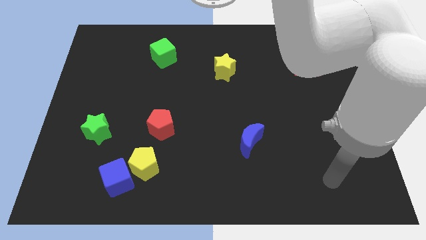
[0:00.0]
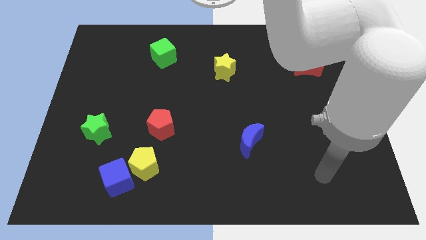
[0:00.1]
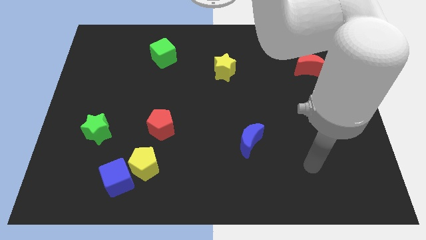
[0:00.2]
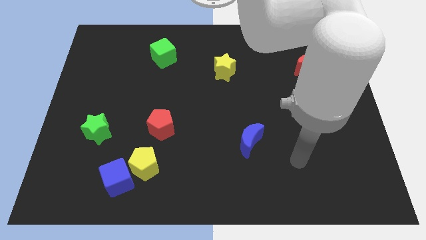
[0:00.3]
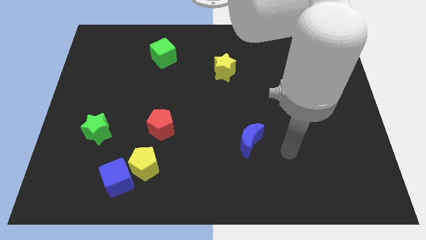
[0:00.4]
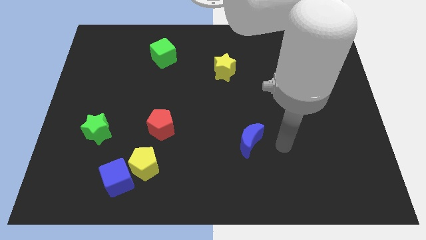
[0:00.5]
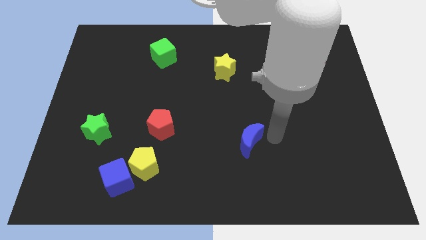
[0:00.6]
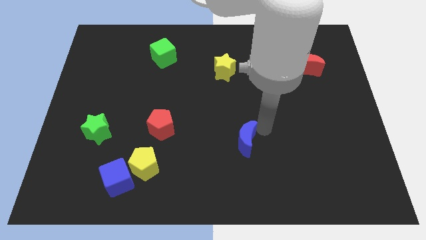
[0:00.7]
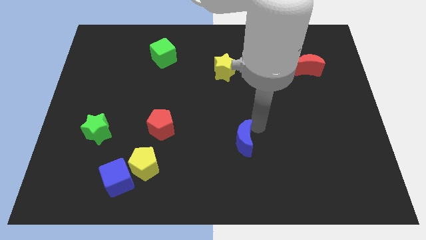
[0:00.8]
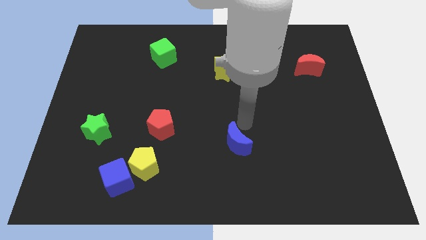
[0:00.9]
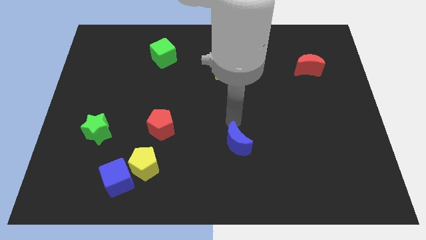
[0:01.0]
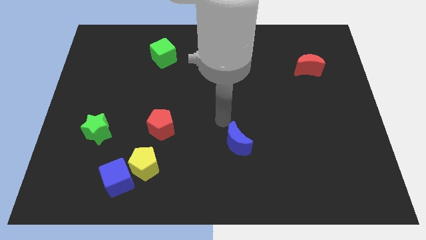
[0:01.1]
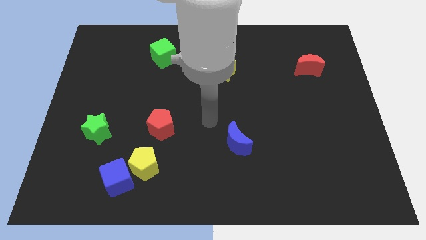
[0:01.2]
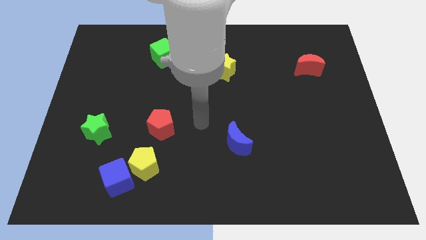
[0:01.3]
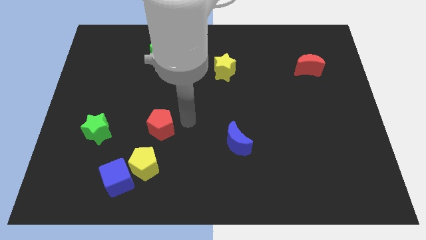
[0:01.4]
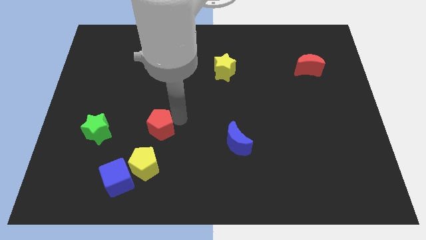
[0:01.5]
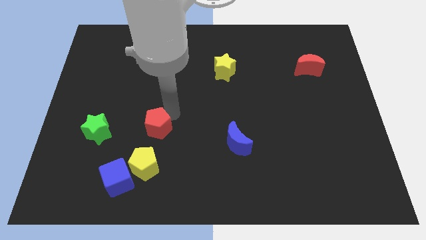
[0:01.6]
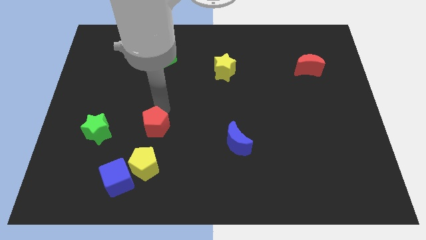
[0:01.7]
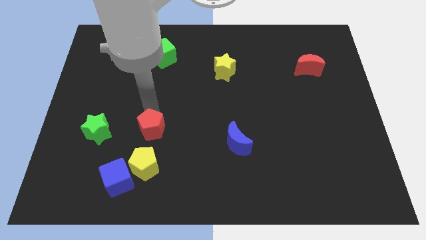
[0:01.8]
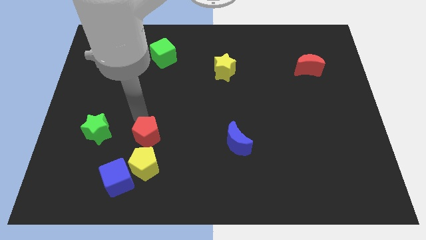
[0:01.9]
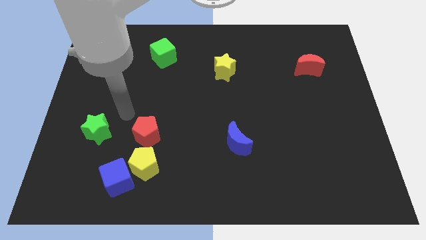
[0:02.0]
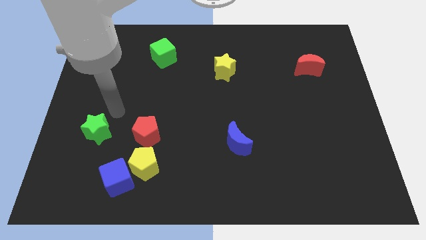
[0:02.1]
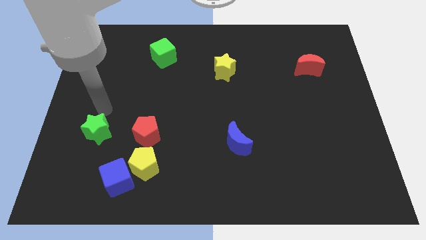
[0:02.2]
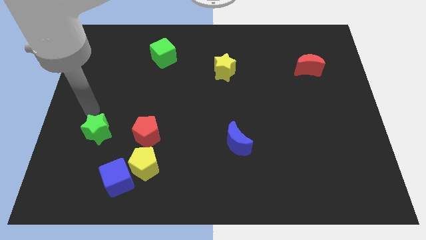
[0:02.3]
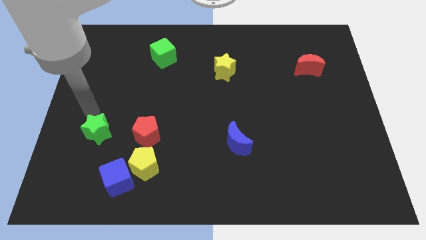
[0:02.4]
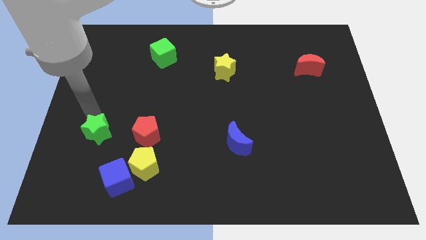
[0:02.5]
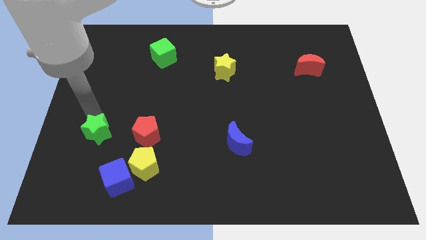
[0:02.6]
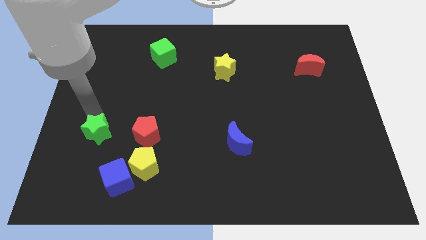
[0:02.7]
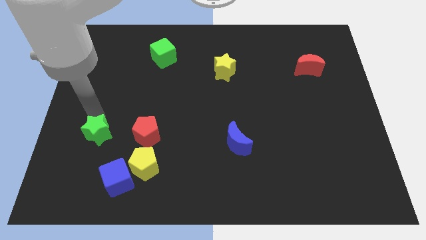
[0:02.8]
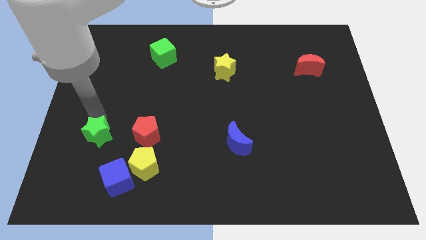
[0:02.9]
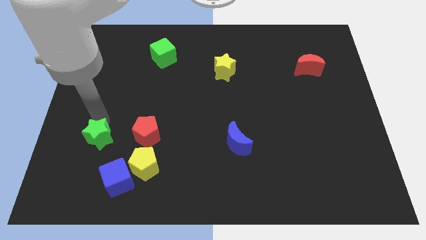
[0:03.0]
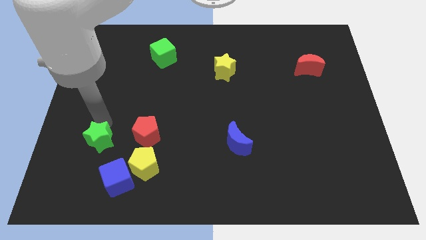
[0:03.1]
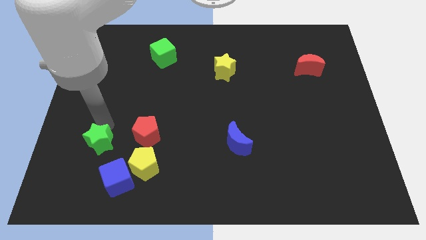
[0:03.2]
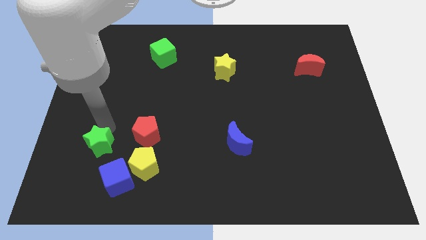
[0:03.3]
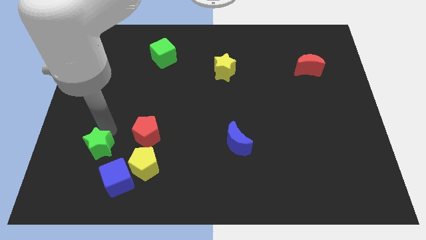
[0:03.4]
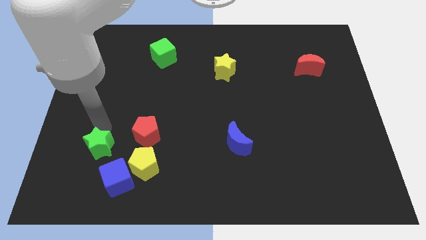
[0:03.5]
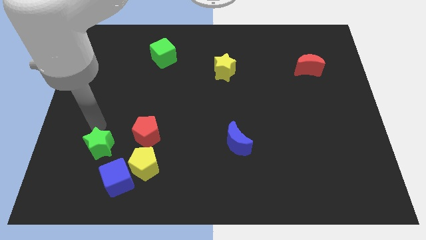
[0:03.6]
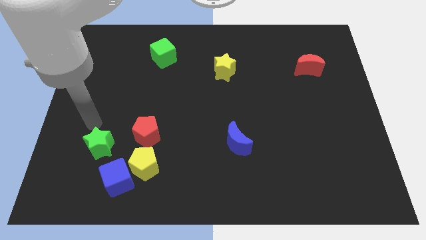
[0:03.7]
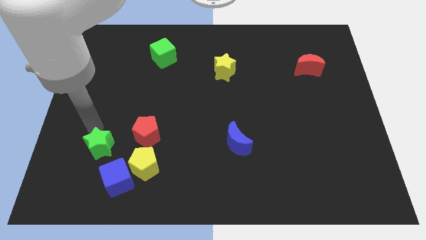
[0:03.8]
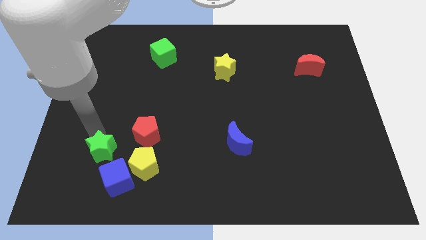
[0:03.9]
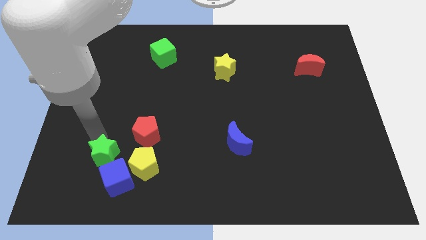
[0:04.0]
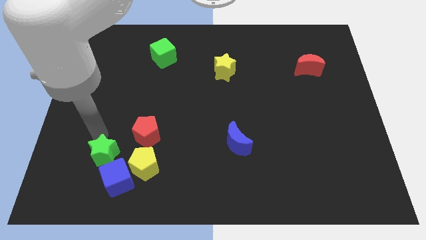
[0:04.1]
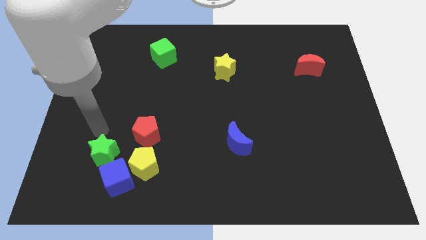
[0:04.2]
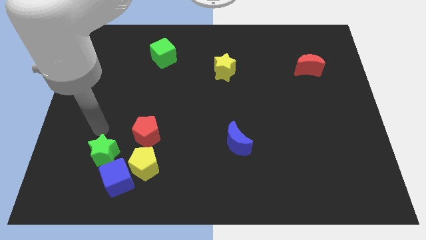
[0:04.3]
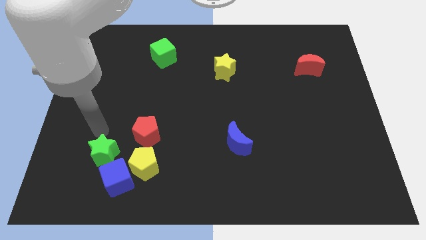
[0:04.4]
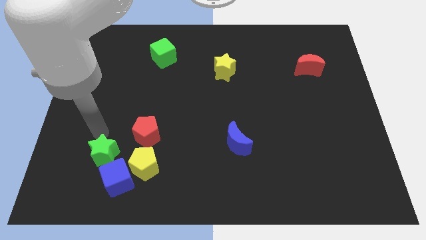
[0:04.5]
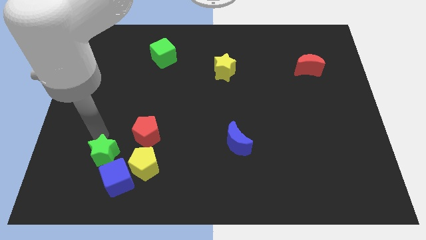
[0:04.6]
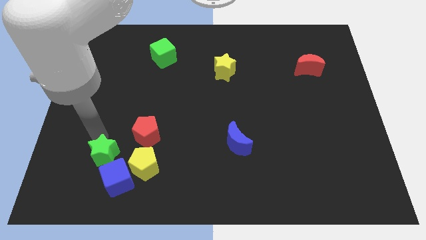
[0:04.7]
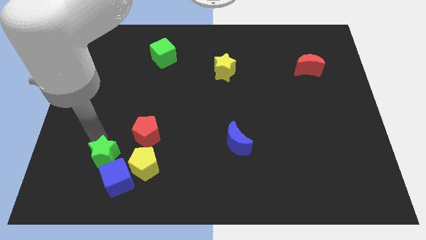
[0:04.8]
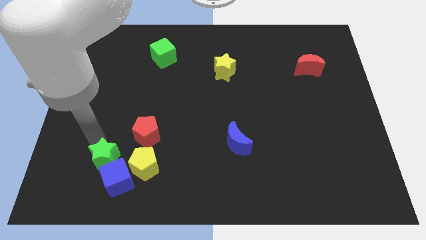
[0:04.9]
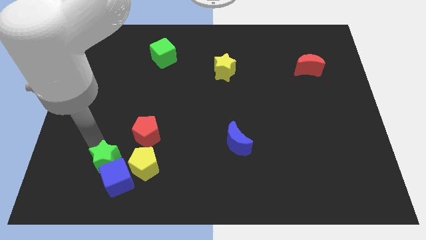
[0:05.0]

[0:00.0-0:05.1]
slide the green star close to the blue cube

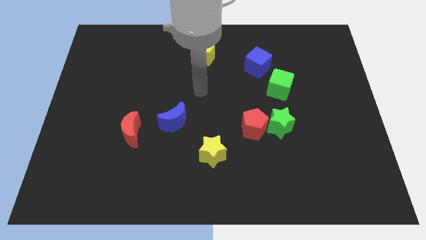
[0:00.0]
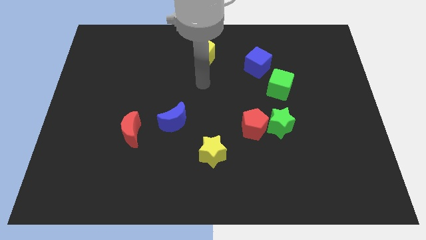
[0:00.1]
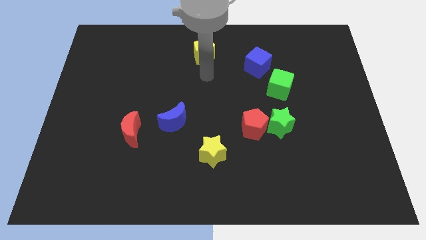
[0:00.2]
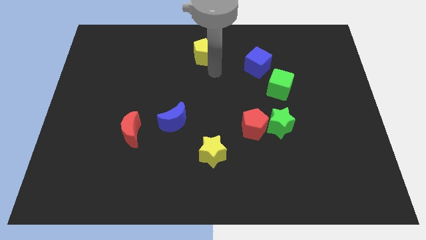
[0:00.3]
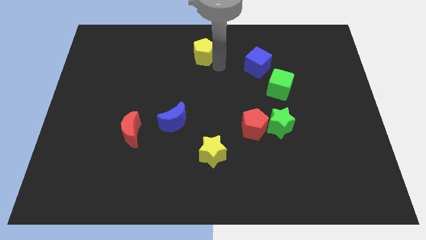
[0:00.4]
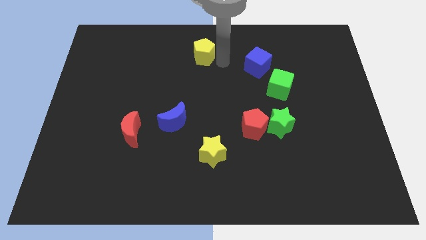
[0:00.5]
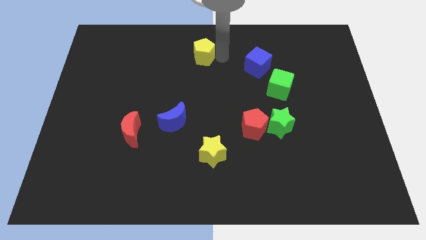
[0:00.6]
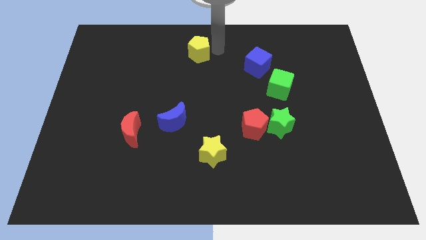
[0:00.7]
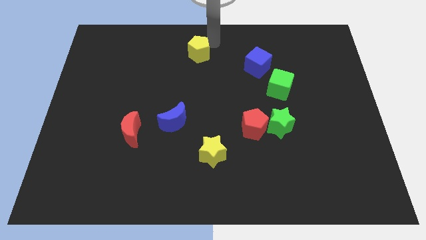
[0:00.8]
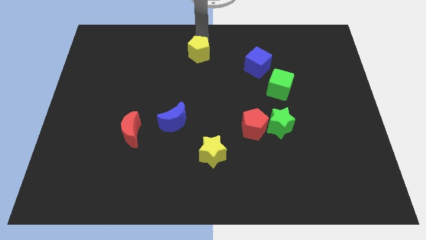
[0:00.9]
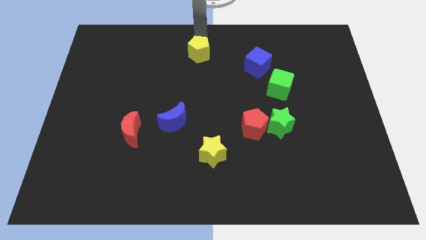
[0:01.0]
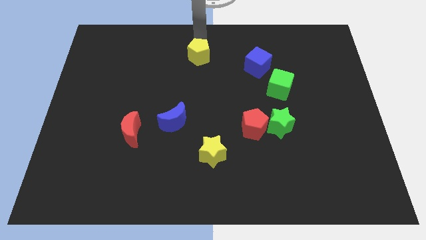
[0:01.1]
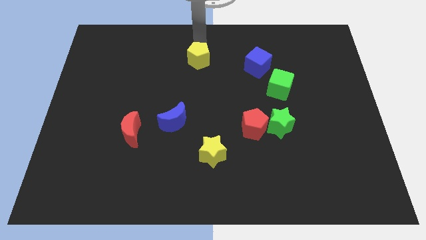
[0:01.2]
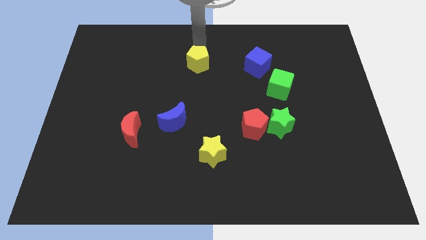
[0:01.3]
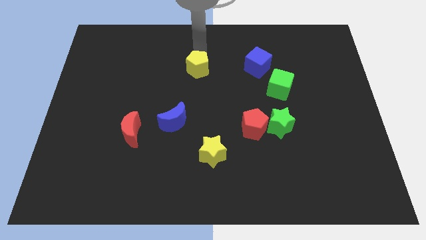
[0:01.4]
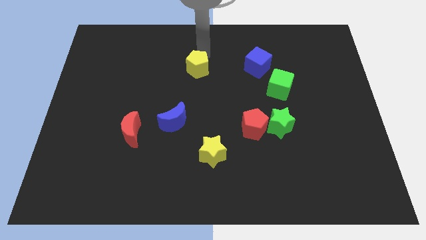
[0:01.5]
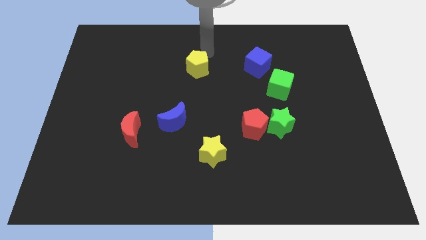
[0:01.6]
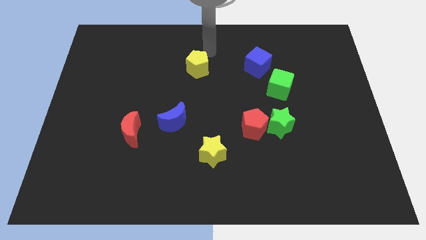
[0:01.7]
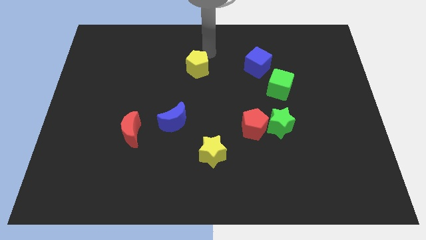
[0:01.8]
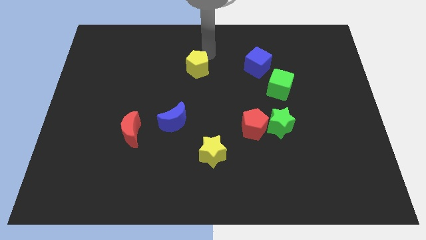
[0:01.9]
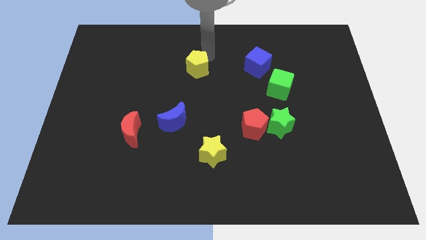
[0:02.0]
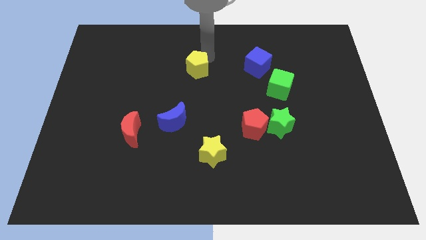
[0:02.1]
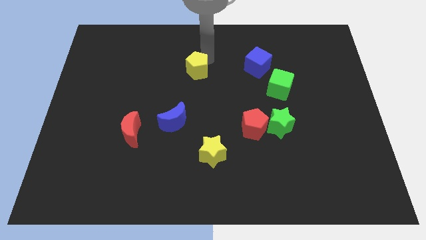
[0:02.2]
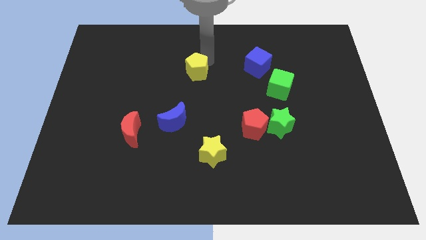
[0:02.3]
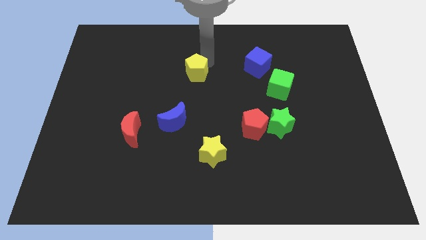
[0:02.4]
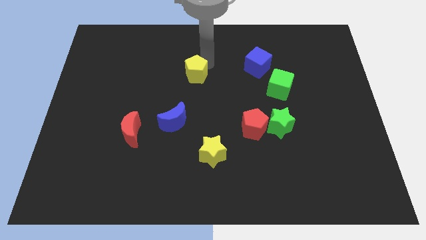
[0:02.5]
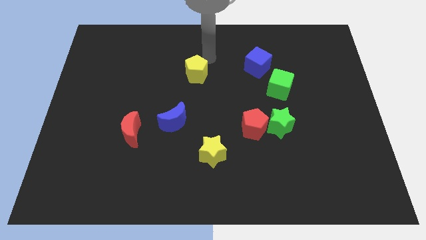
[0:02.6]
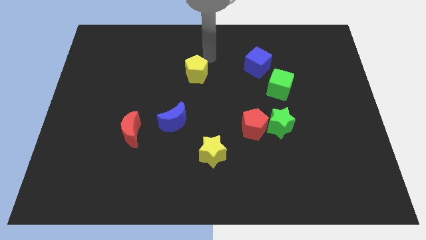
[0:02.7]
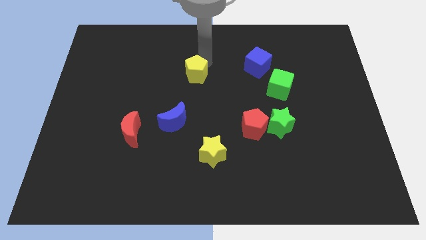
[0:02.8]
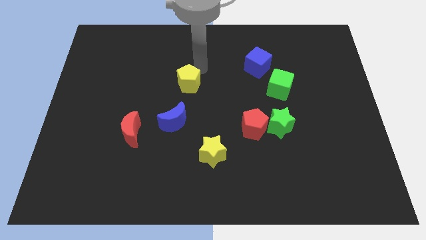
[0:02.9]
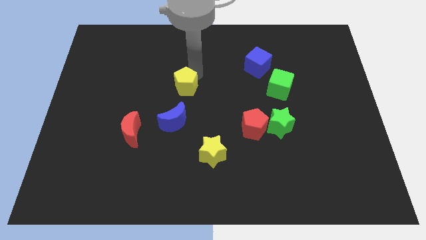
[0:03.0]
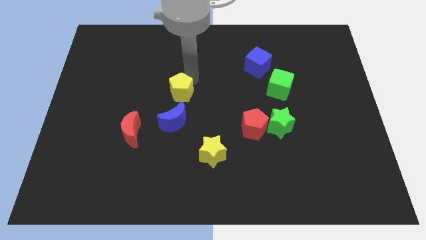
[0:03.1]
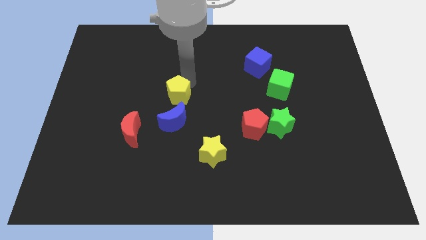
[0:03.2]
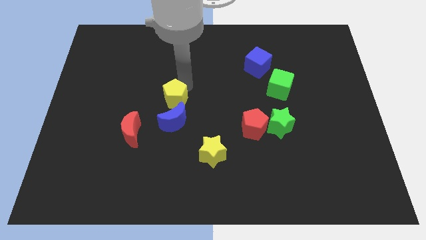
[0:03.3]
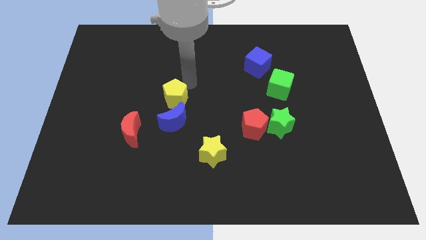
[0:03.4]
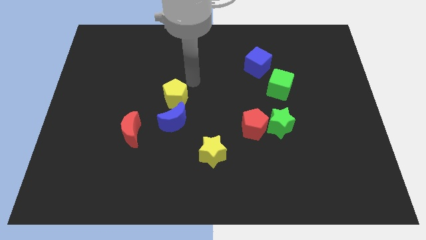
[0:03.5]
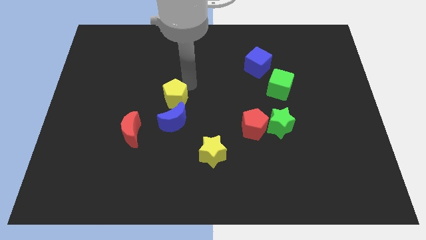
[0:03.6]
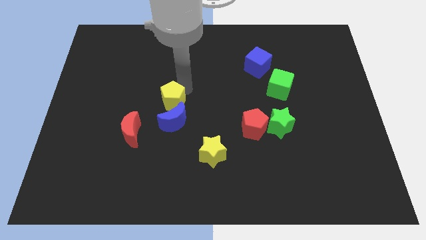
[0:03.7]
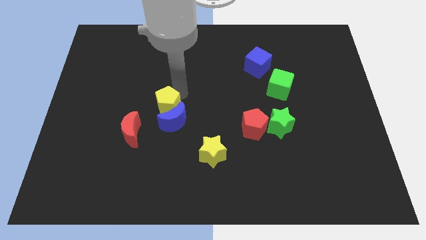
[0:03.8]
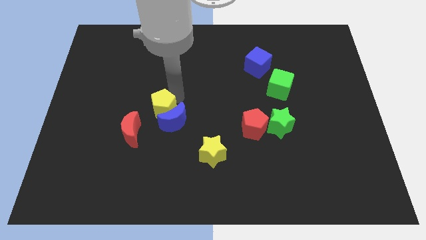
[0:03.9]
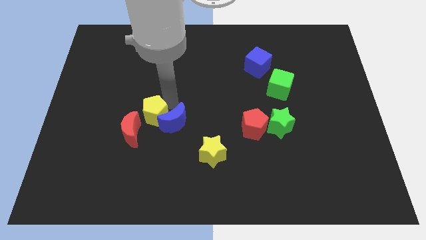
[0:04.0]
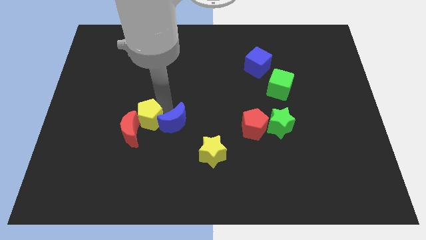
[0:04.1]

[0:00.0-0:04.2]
slide the yellow pentagon next to the red moon
